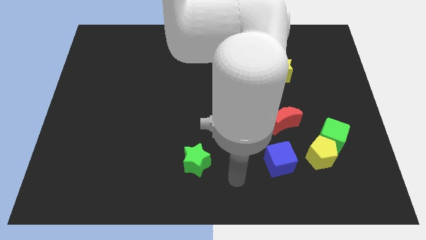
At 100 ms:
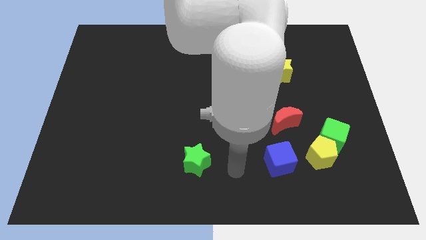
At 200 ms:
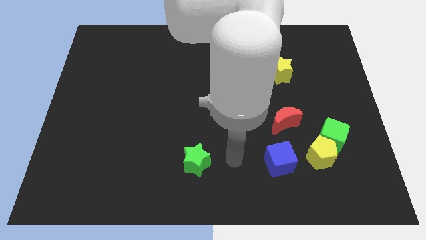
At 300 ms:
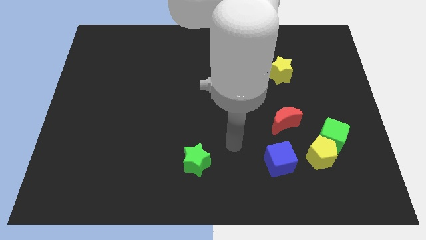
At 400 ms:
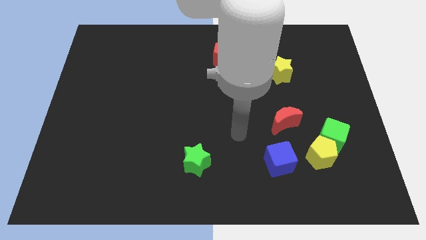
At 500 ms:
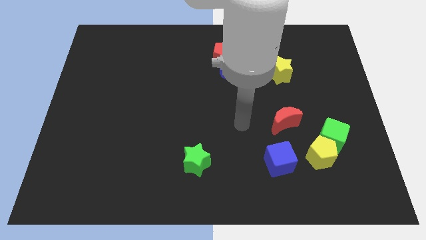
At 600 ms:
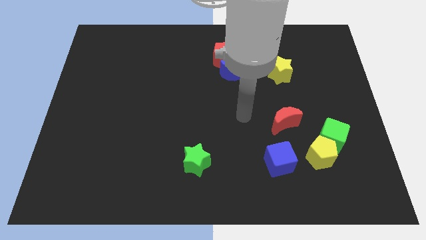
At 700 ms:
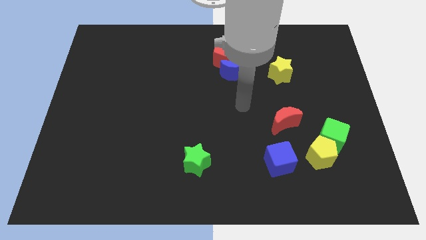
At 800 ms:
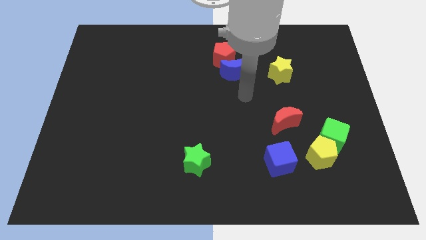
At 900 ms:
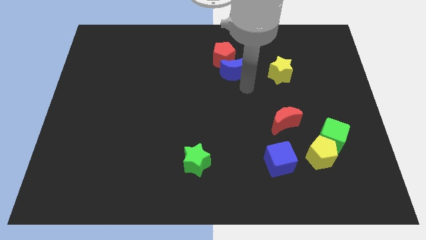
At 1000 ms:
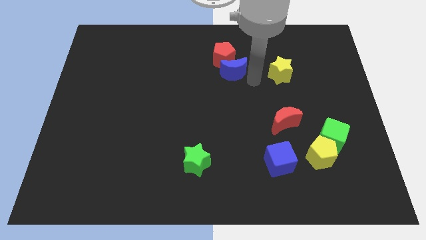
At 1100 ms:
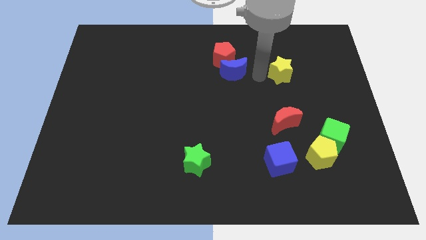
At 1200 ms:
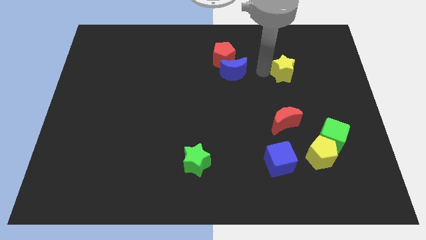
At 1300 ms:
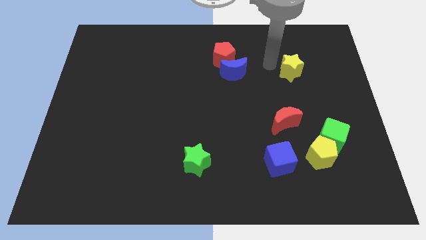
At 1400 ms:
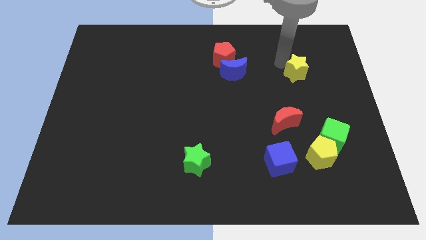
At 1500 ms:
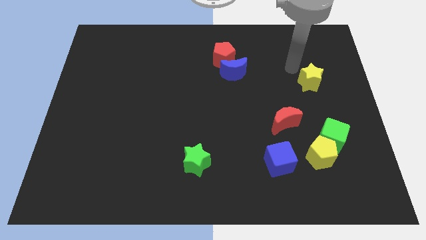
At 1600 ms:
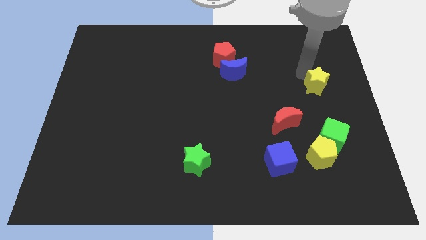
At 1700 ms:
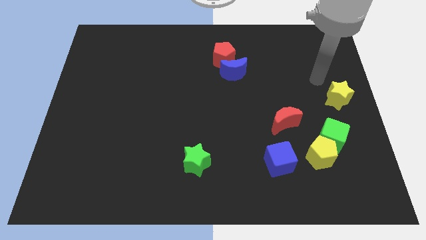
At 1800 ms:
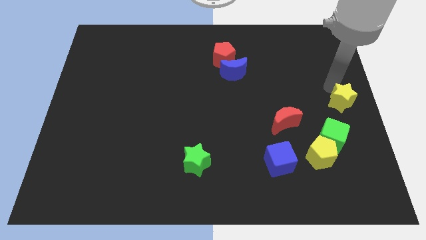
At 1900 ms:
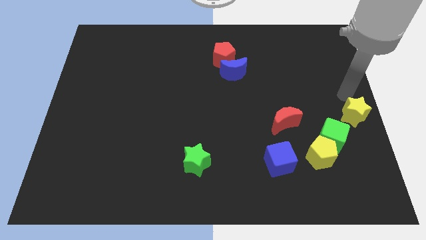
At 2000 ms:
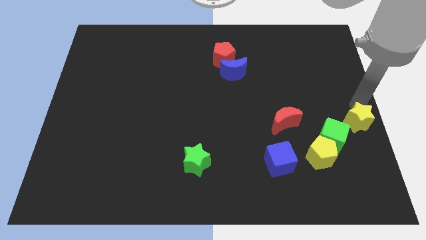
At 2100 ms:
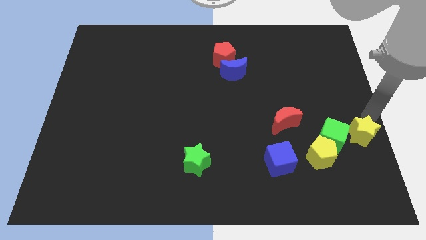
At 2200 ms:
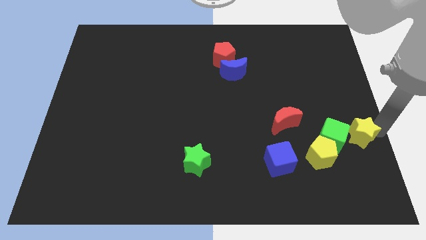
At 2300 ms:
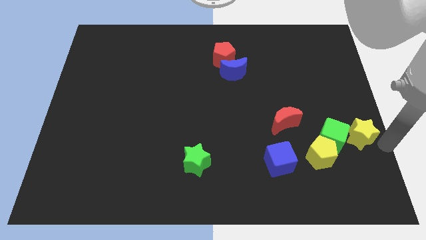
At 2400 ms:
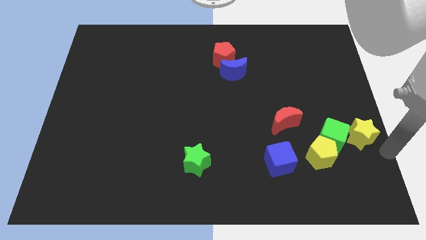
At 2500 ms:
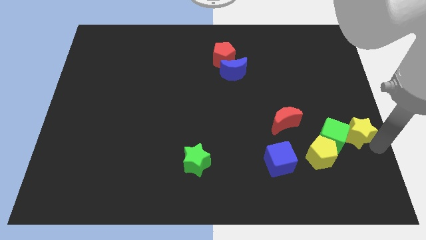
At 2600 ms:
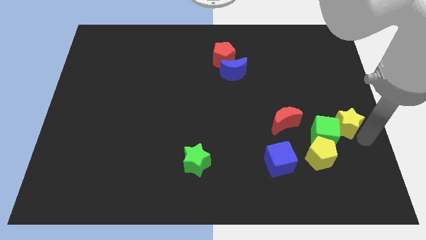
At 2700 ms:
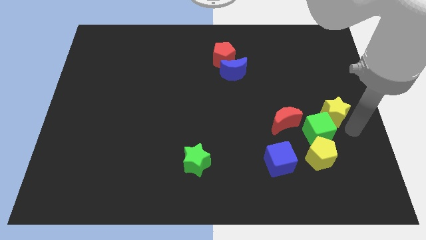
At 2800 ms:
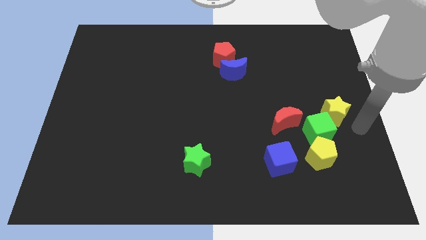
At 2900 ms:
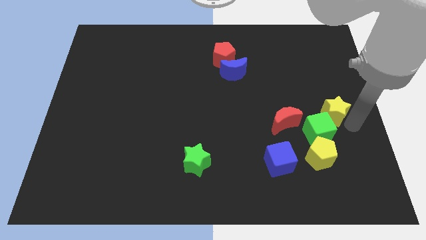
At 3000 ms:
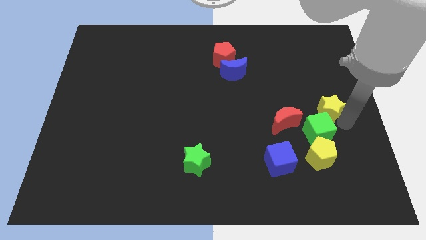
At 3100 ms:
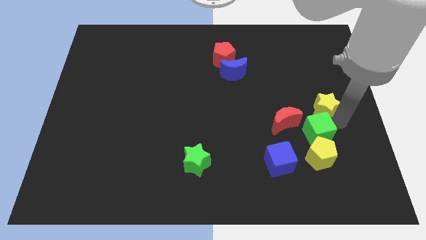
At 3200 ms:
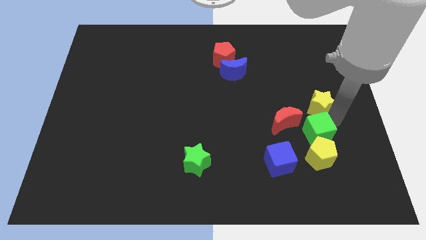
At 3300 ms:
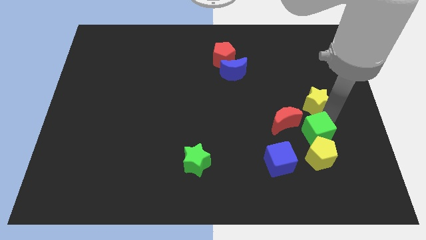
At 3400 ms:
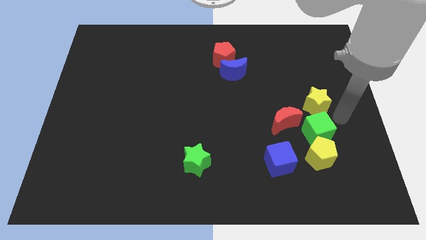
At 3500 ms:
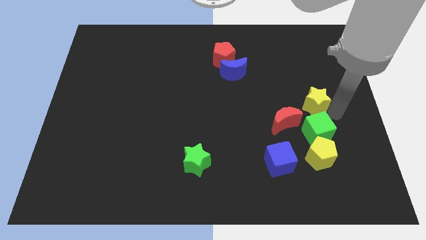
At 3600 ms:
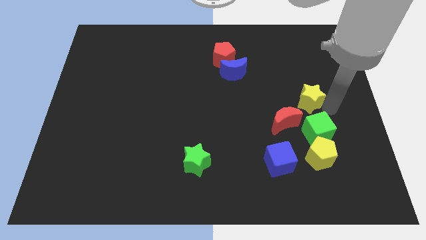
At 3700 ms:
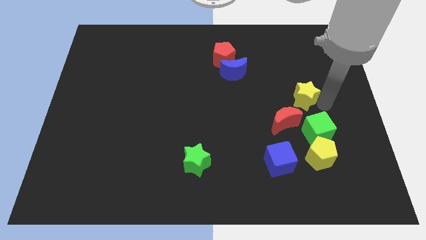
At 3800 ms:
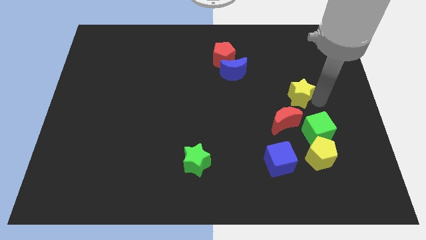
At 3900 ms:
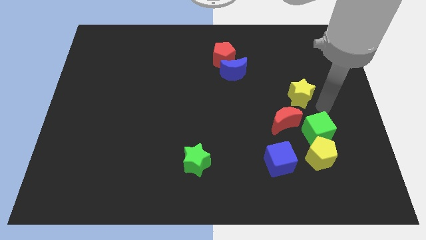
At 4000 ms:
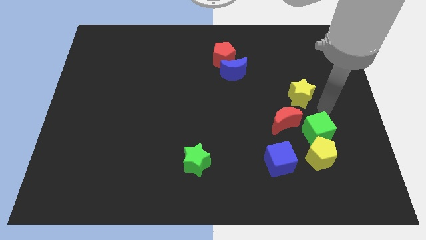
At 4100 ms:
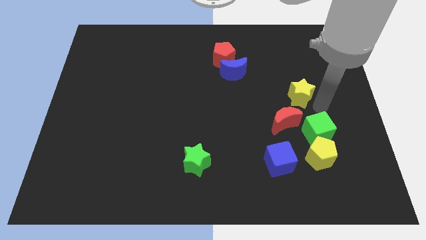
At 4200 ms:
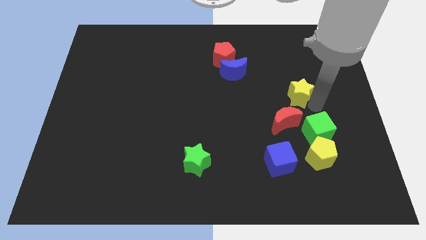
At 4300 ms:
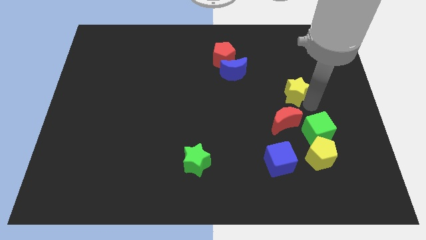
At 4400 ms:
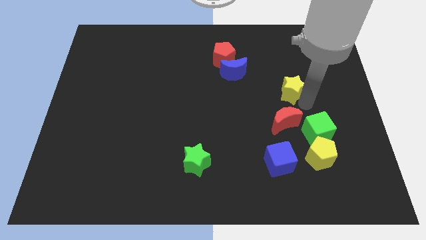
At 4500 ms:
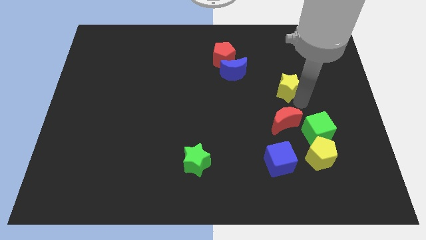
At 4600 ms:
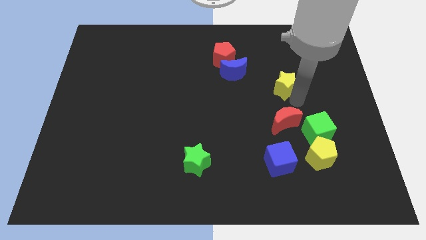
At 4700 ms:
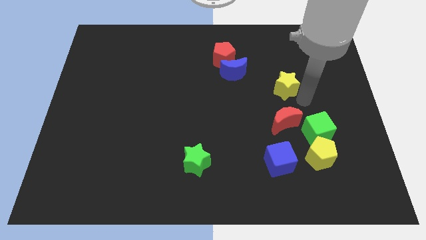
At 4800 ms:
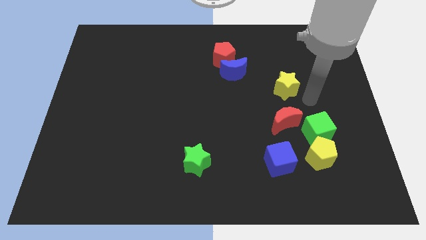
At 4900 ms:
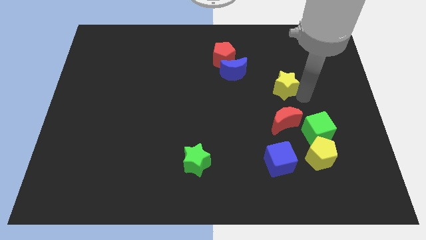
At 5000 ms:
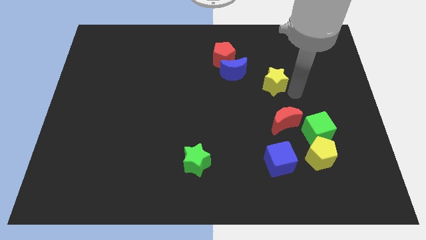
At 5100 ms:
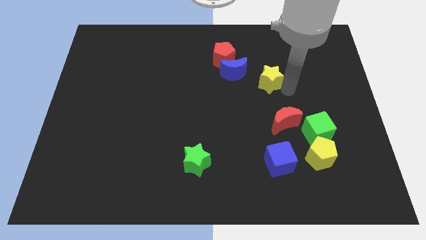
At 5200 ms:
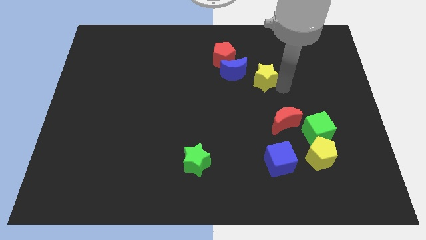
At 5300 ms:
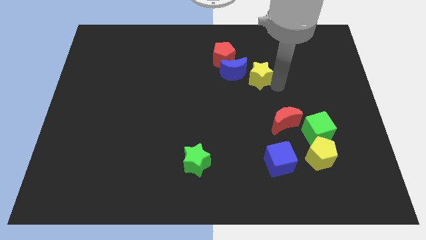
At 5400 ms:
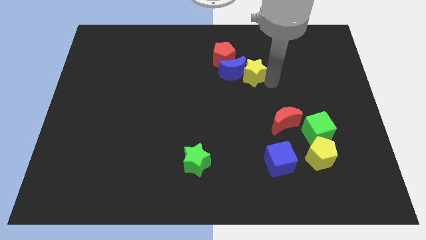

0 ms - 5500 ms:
push the yellow star next to the blue moon

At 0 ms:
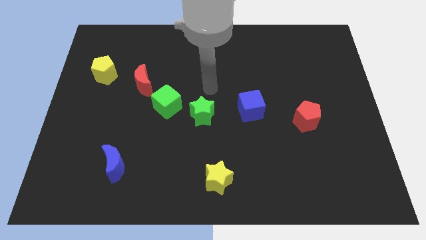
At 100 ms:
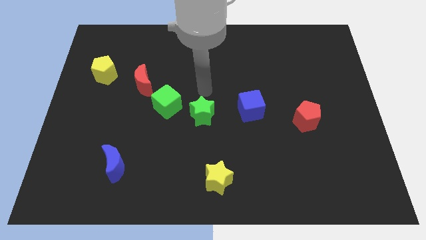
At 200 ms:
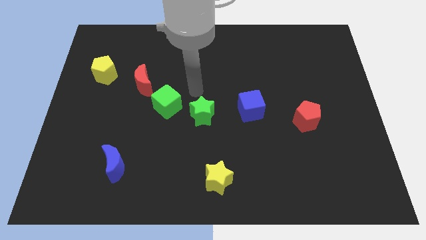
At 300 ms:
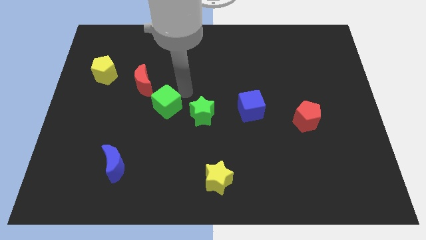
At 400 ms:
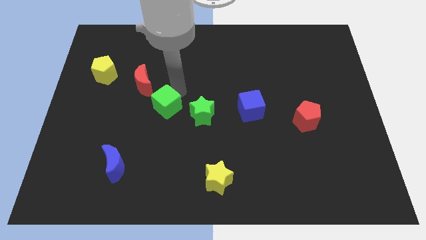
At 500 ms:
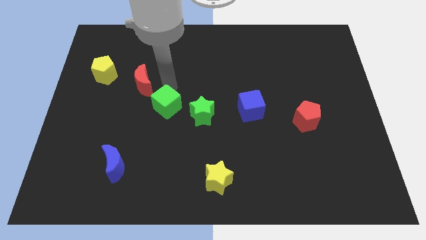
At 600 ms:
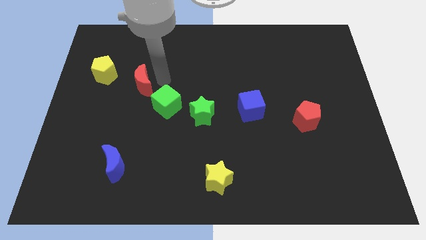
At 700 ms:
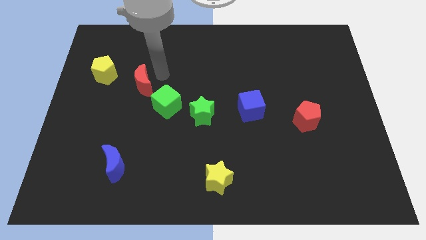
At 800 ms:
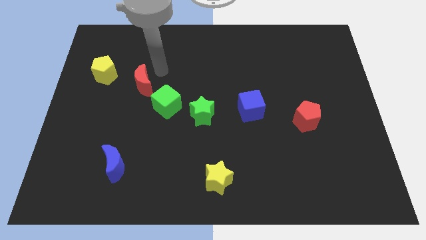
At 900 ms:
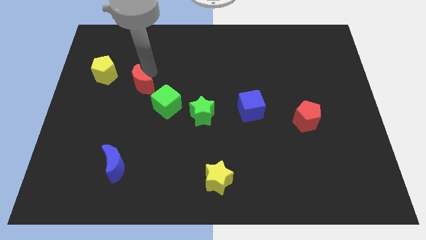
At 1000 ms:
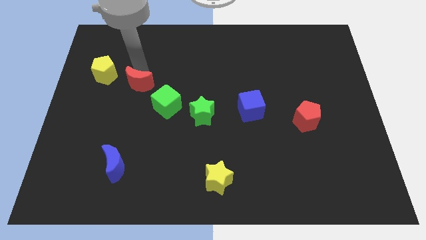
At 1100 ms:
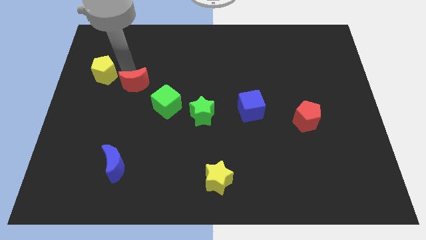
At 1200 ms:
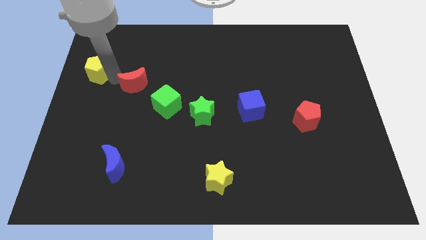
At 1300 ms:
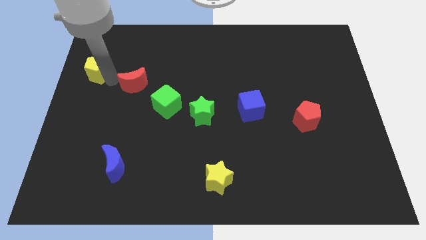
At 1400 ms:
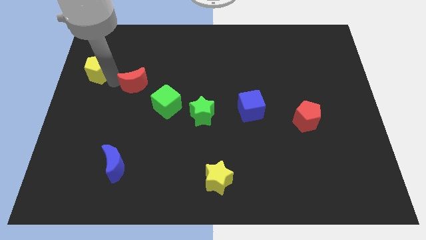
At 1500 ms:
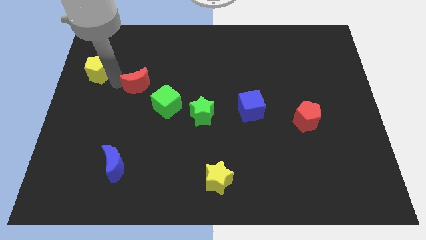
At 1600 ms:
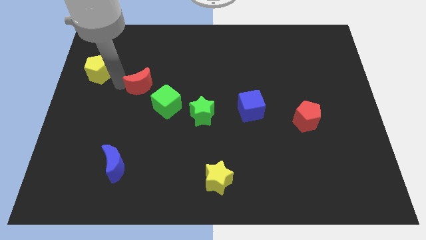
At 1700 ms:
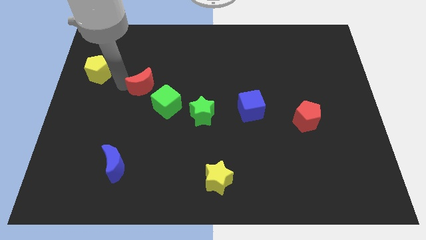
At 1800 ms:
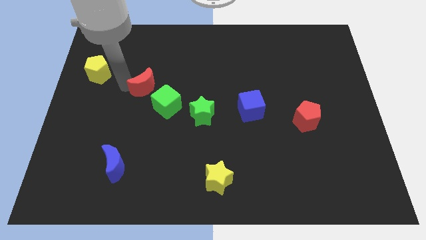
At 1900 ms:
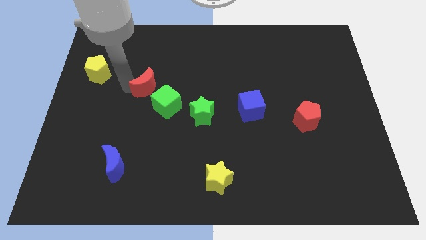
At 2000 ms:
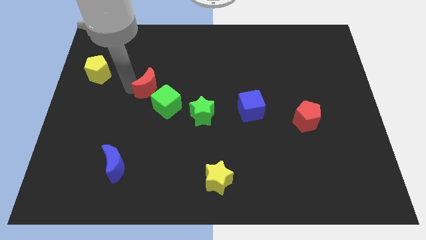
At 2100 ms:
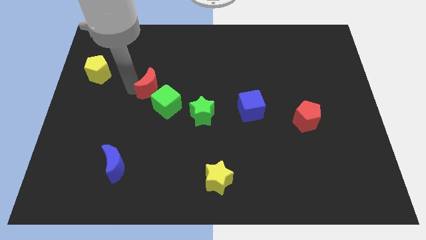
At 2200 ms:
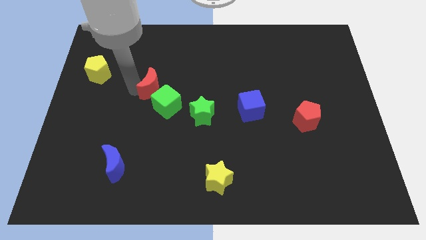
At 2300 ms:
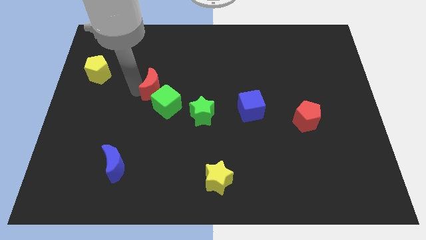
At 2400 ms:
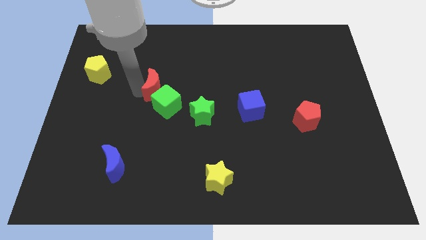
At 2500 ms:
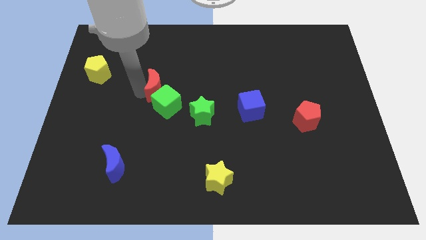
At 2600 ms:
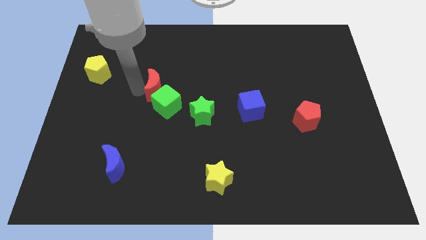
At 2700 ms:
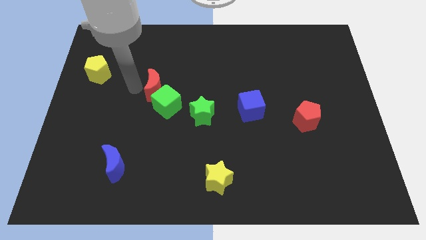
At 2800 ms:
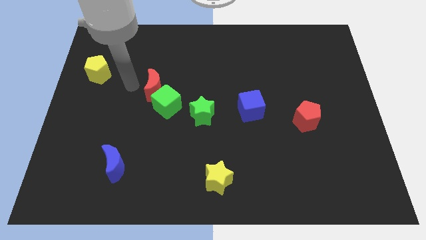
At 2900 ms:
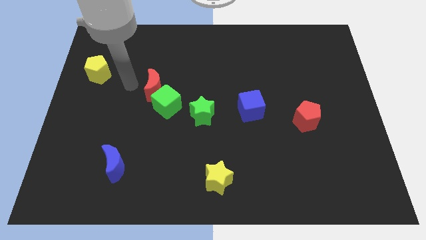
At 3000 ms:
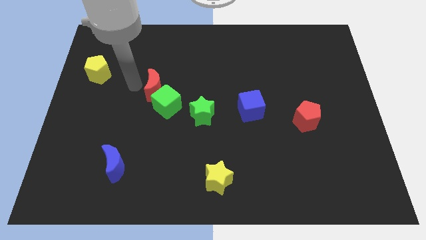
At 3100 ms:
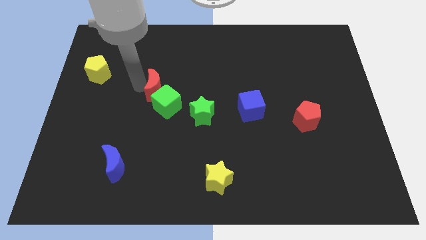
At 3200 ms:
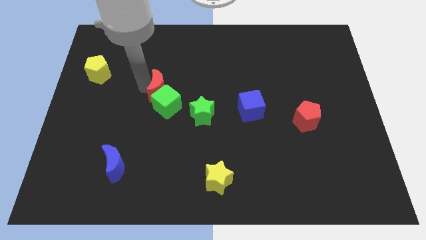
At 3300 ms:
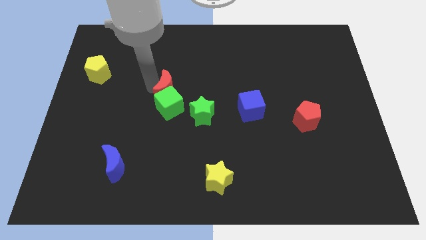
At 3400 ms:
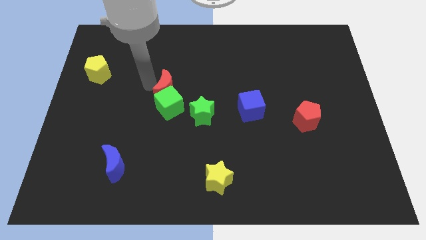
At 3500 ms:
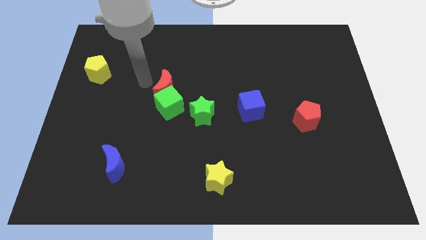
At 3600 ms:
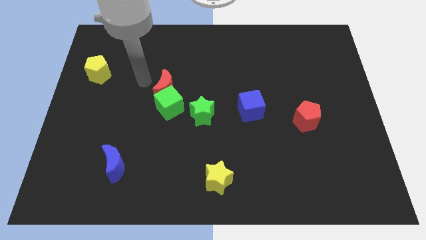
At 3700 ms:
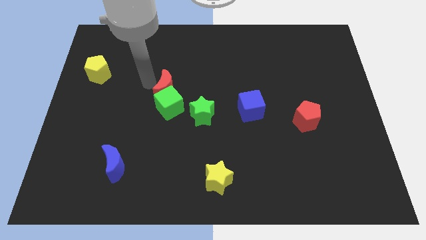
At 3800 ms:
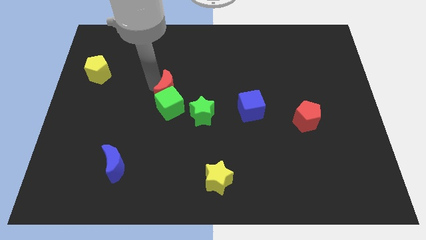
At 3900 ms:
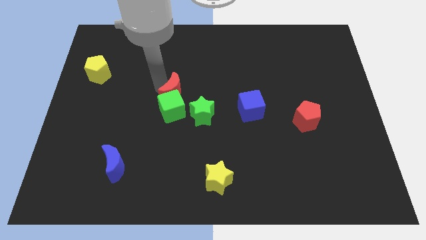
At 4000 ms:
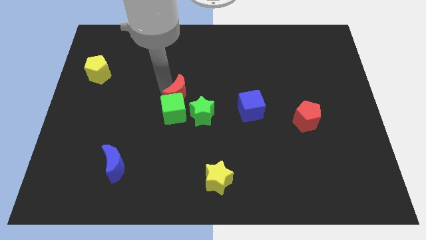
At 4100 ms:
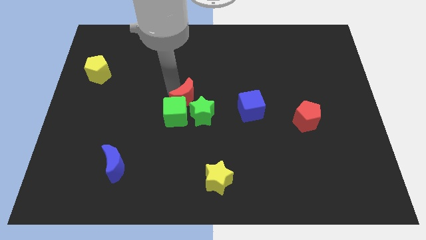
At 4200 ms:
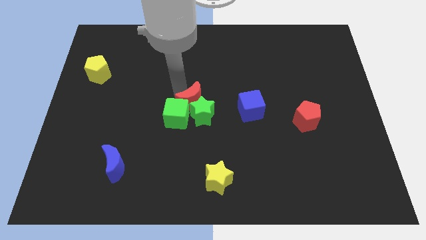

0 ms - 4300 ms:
put the red moon close to the green star
